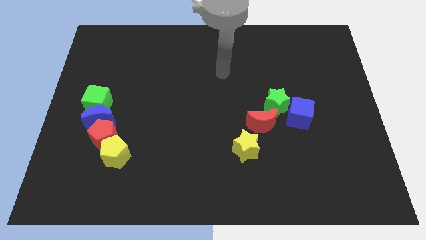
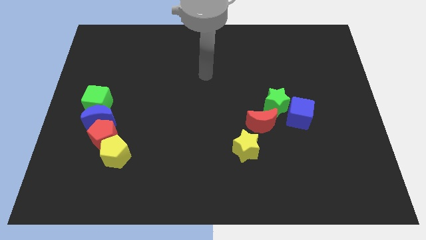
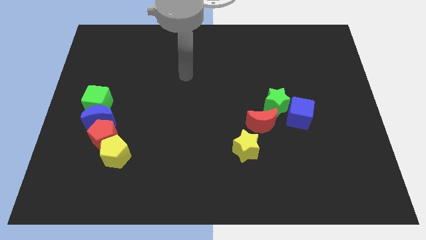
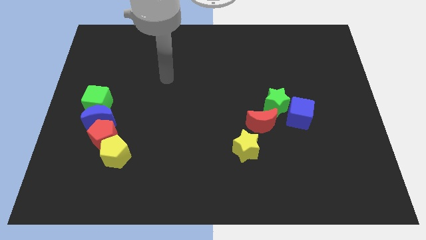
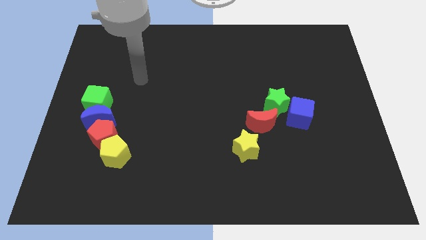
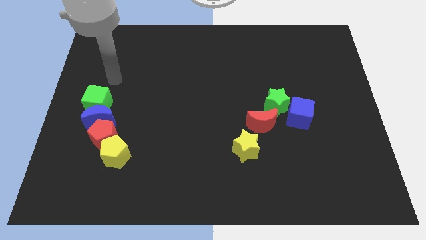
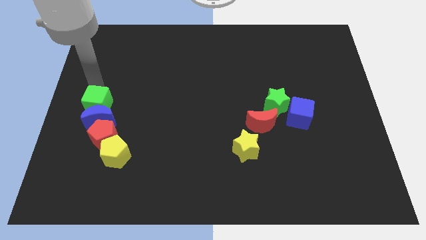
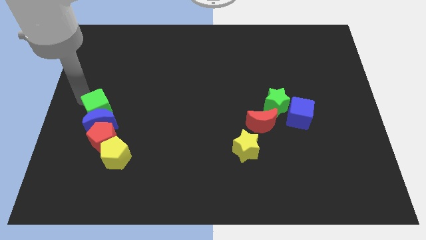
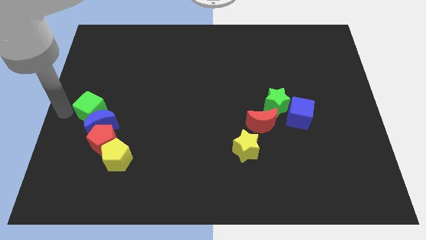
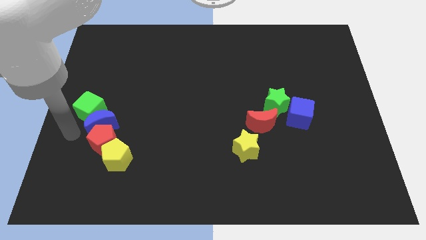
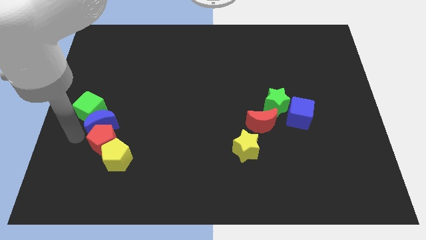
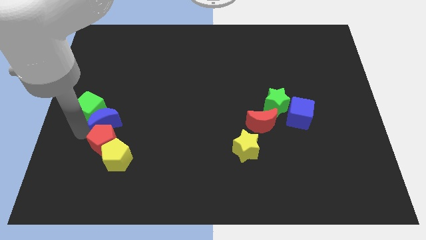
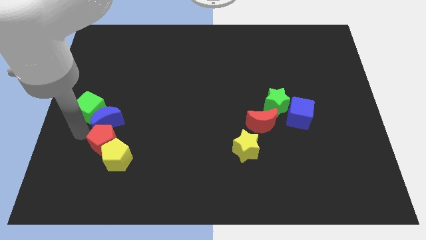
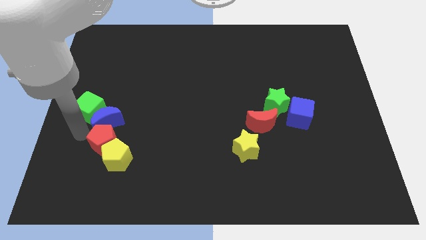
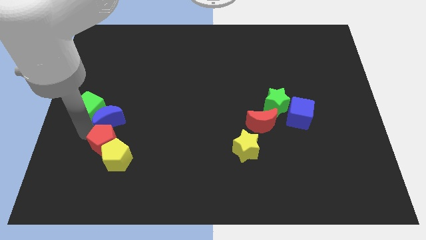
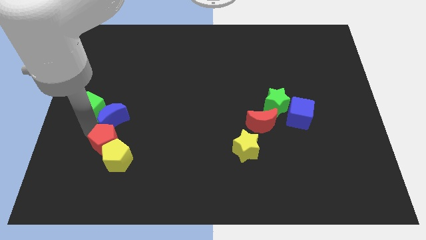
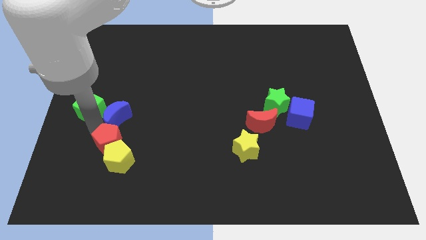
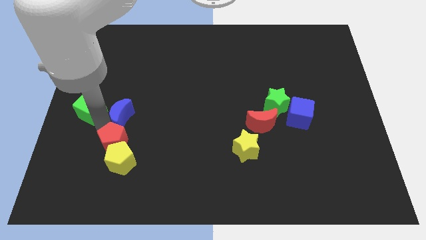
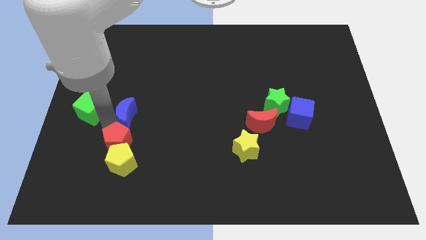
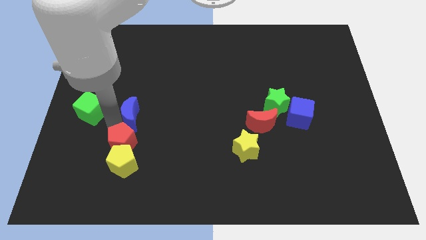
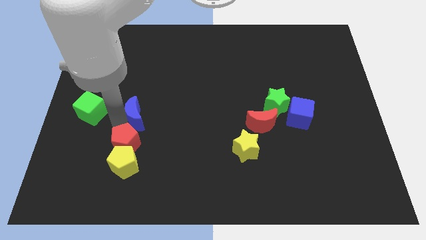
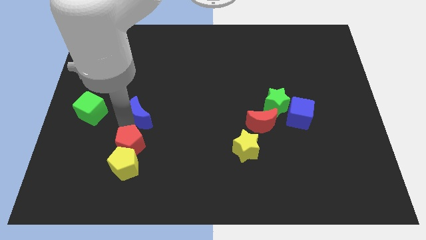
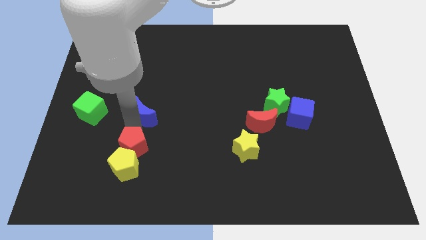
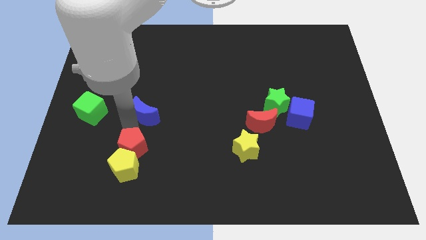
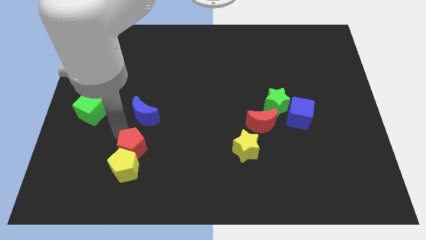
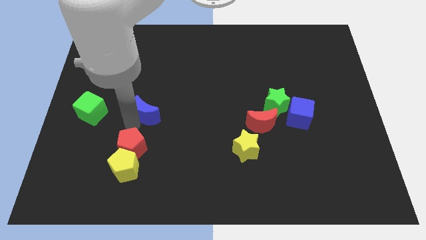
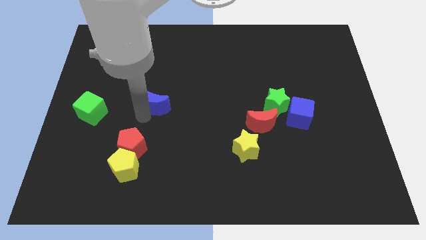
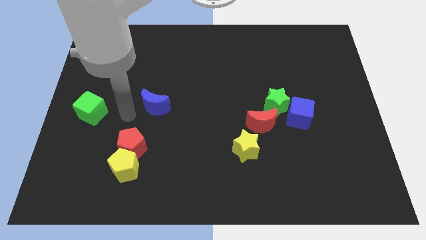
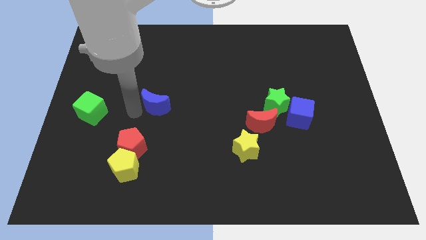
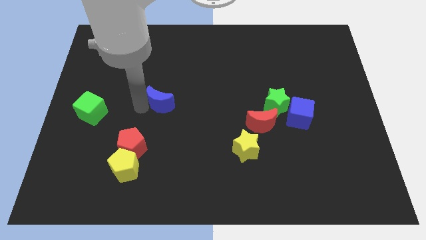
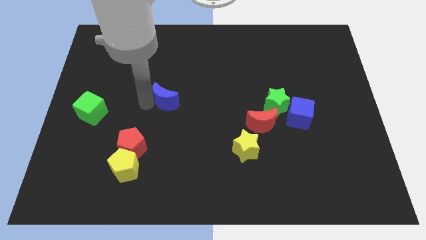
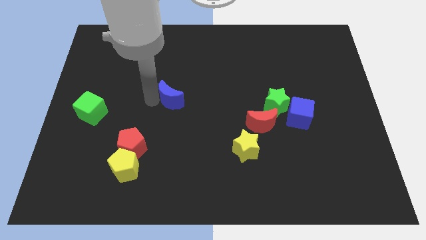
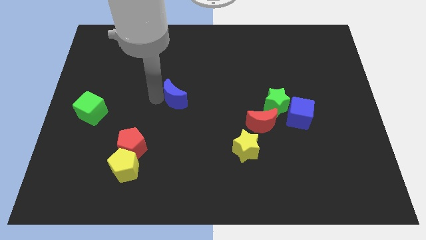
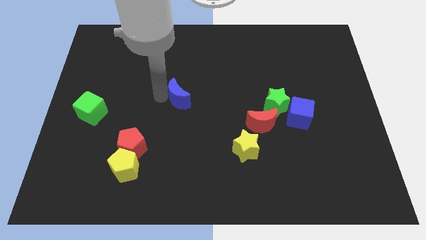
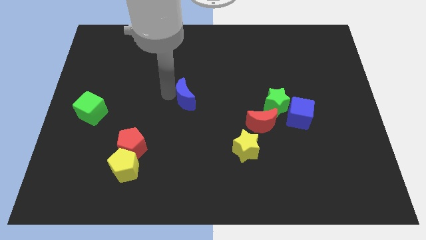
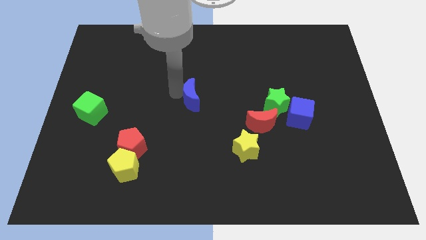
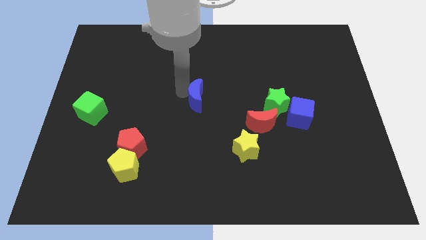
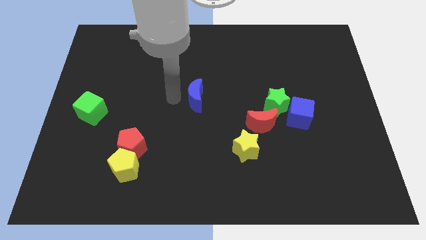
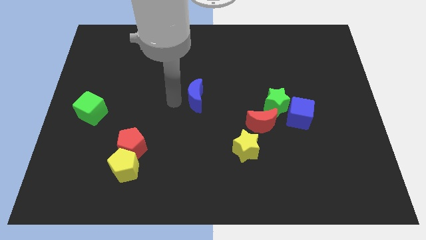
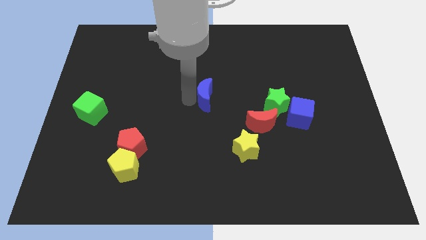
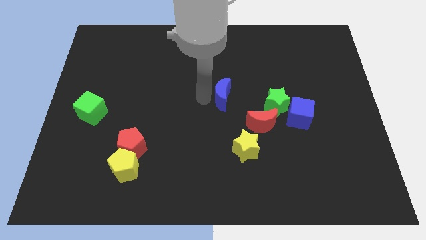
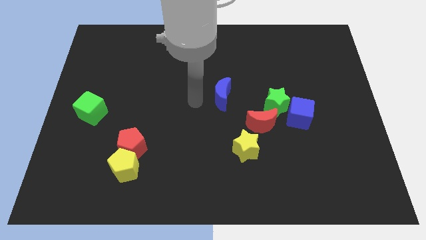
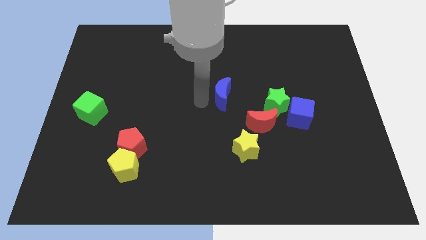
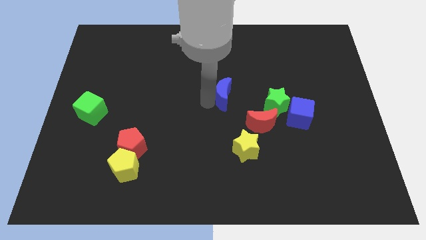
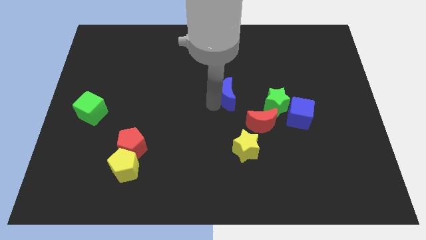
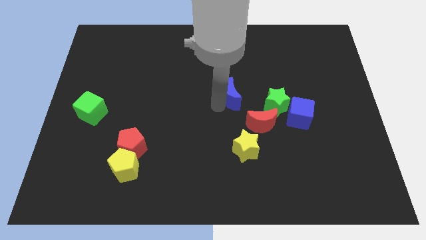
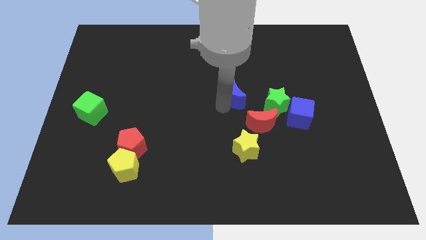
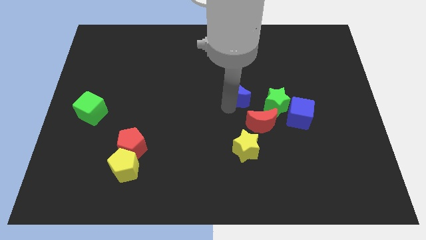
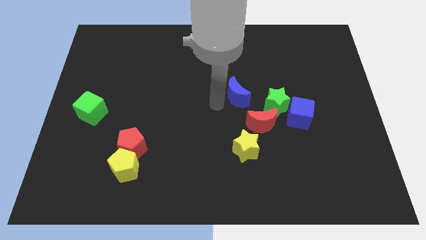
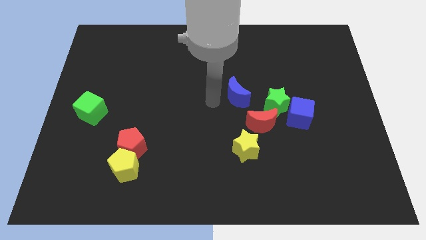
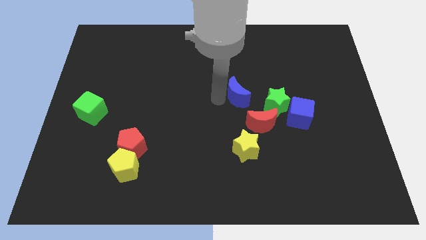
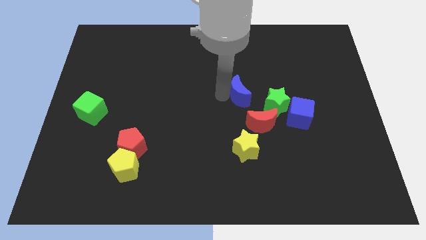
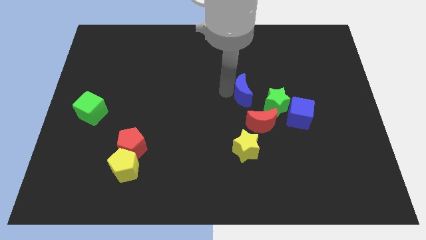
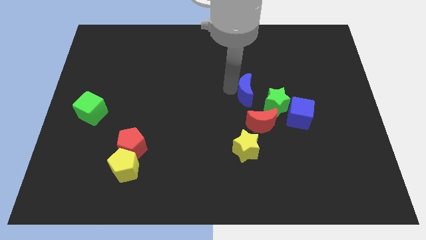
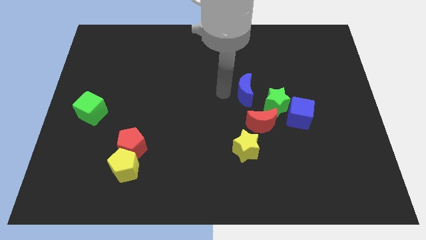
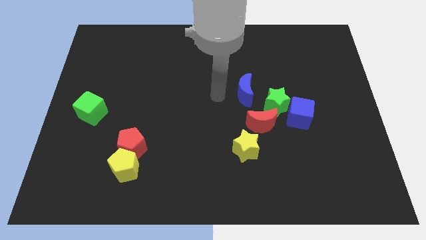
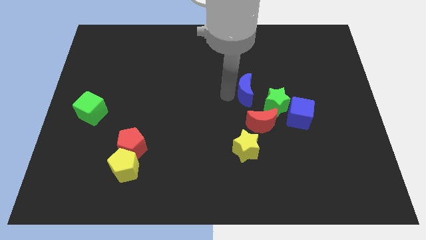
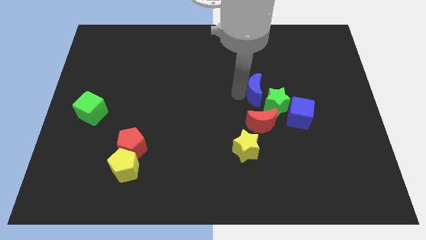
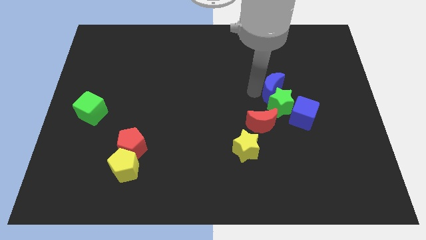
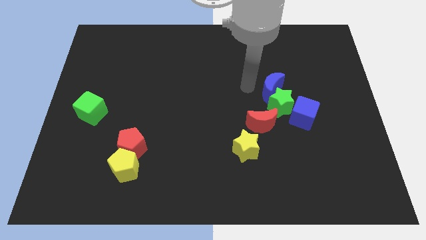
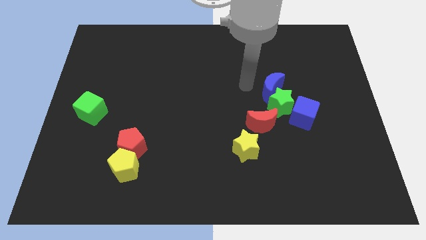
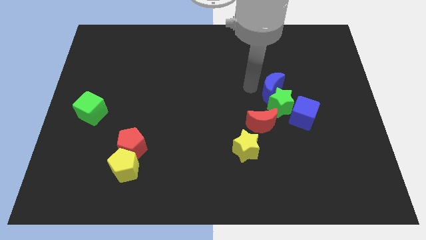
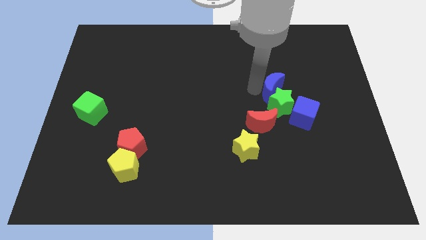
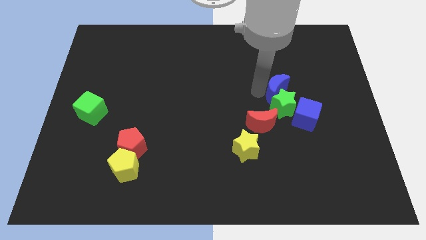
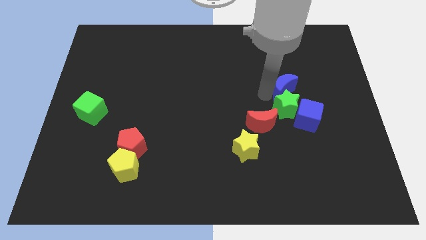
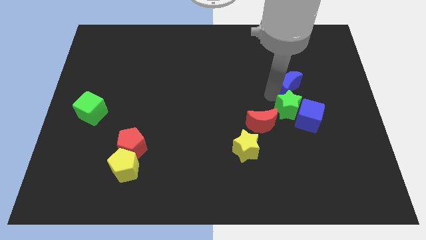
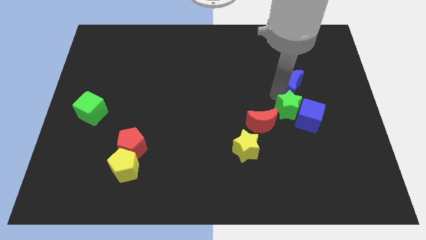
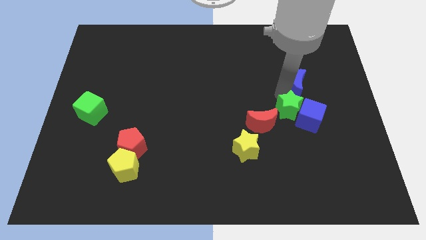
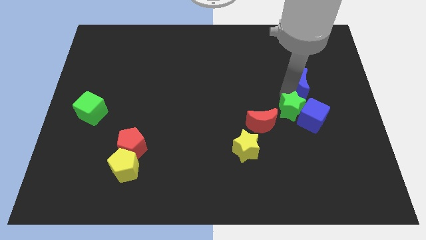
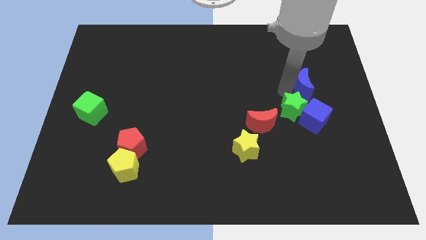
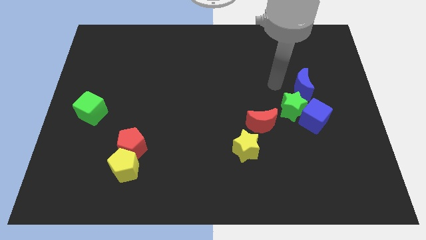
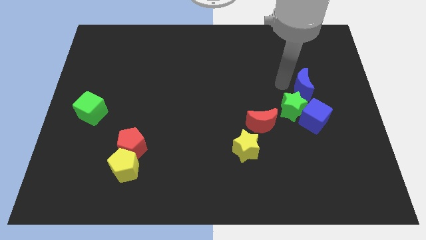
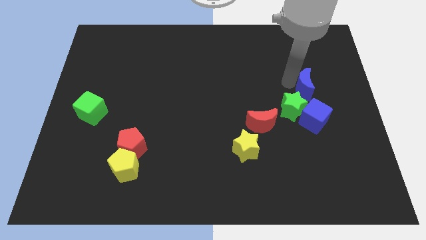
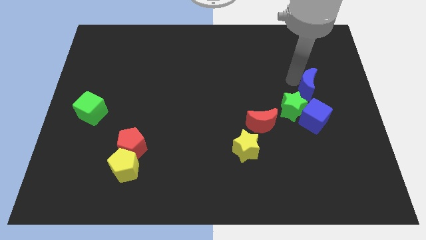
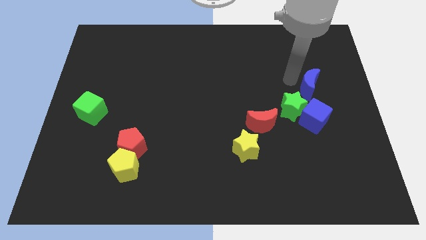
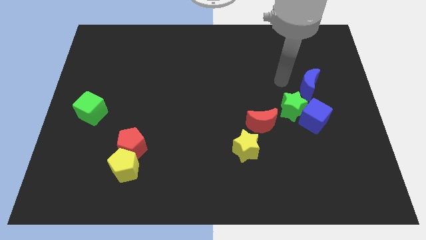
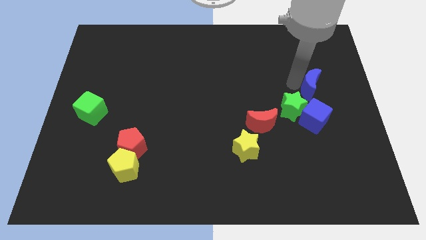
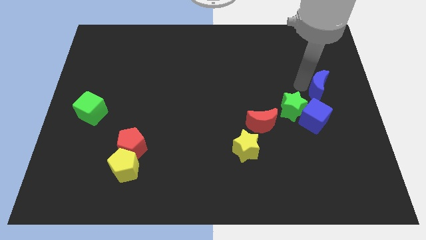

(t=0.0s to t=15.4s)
move the blue moon to the center right
